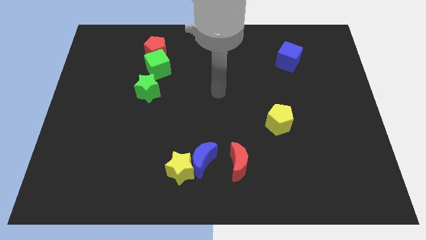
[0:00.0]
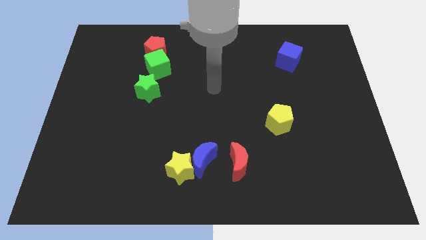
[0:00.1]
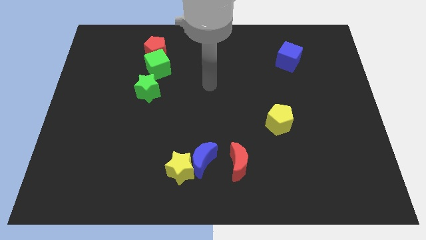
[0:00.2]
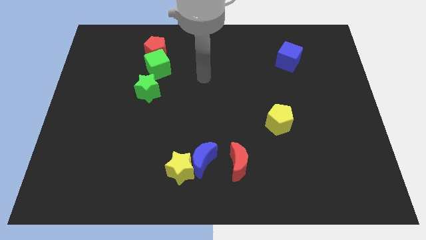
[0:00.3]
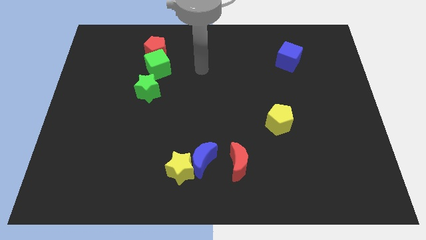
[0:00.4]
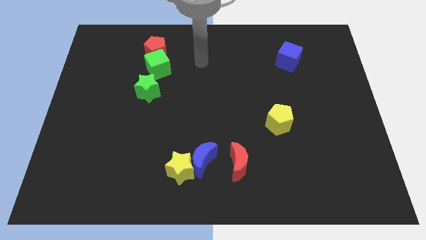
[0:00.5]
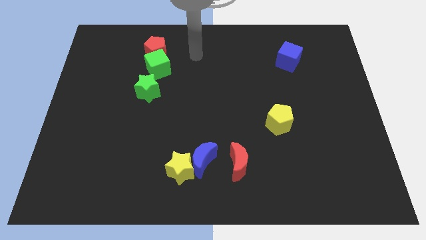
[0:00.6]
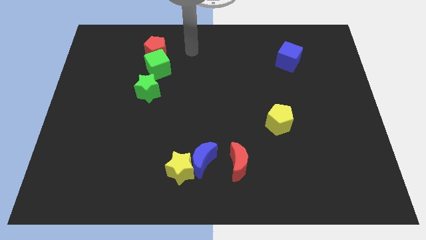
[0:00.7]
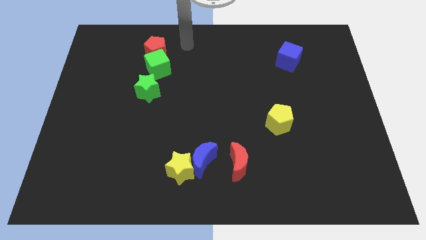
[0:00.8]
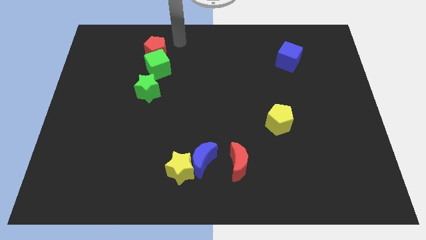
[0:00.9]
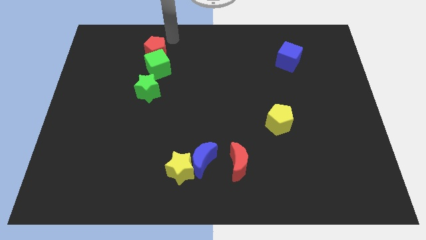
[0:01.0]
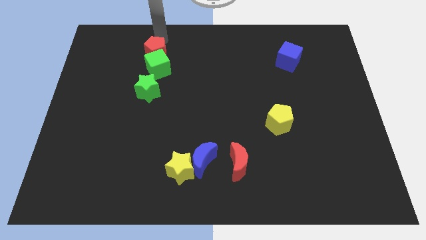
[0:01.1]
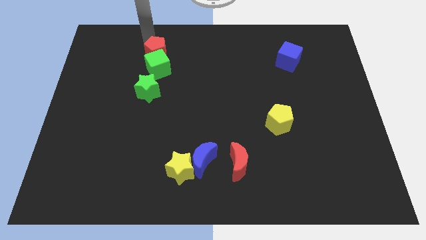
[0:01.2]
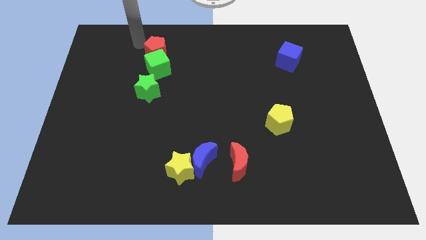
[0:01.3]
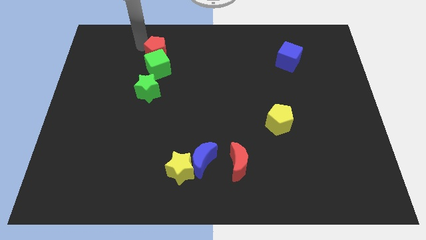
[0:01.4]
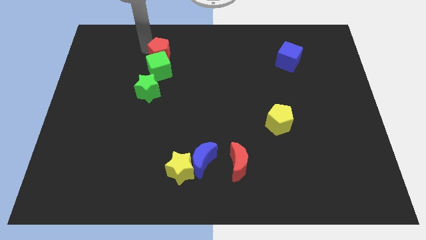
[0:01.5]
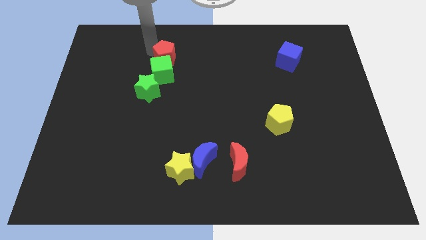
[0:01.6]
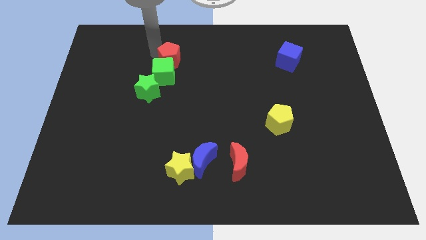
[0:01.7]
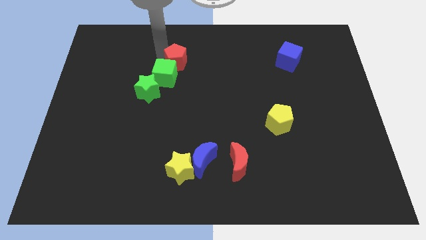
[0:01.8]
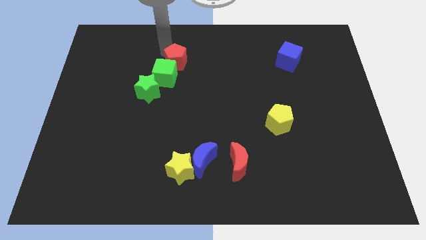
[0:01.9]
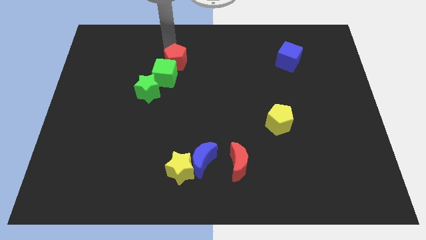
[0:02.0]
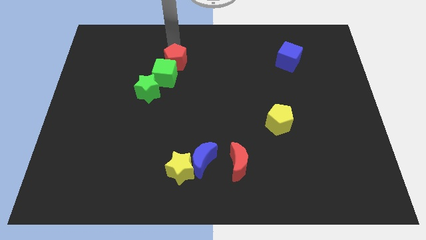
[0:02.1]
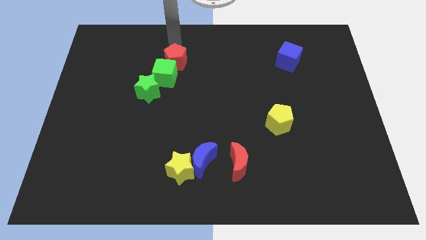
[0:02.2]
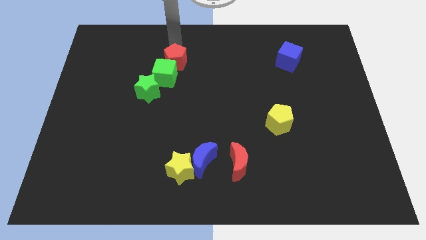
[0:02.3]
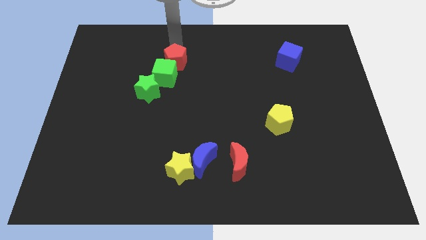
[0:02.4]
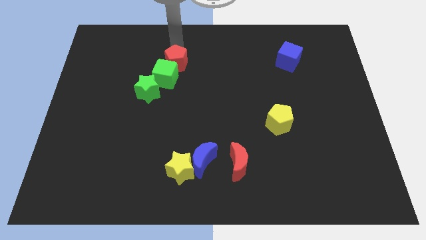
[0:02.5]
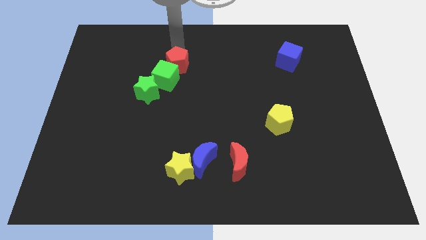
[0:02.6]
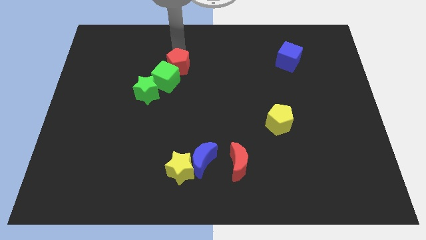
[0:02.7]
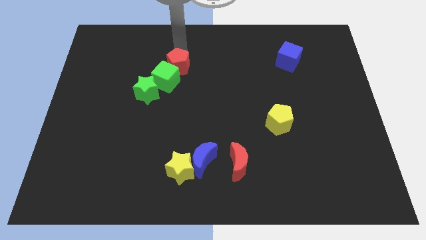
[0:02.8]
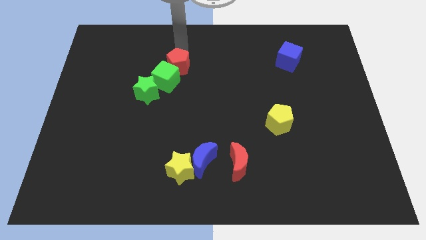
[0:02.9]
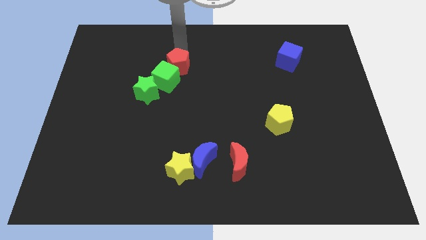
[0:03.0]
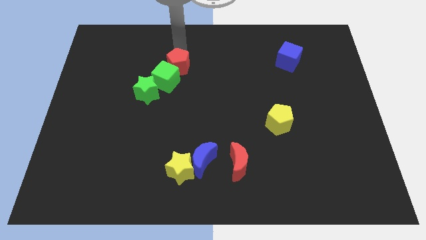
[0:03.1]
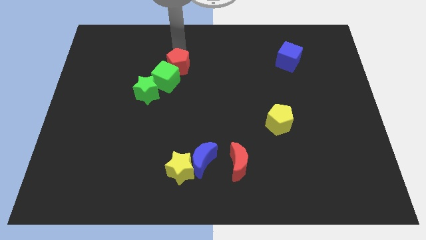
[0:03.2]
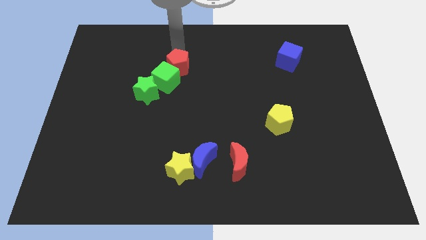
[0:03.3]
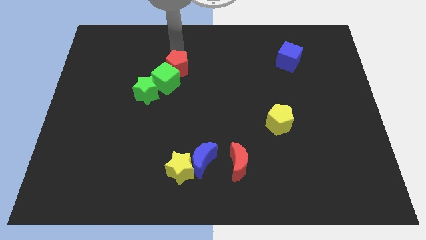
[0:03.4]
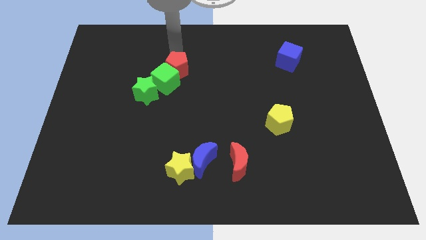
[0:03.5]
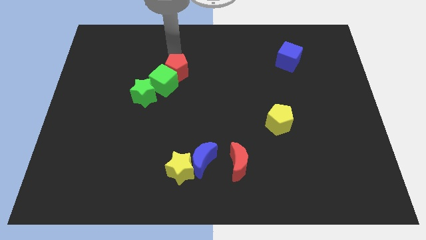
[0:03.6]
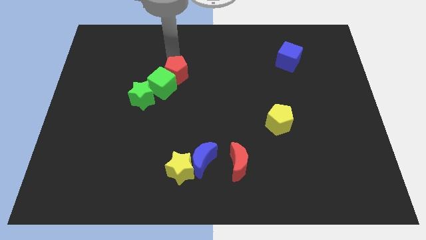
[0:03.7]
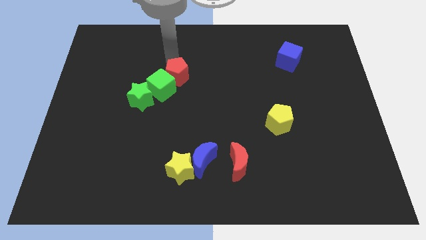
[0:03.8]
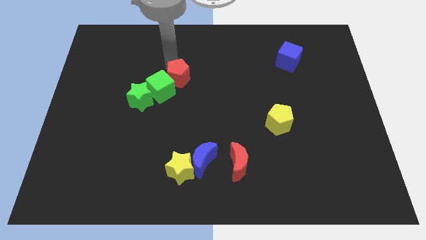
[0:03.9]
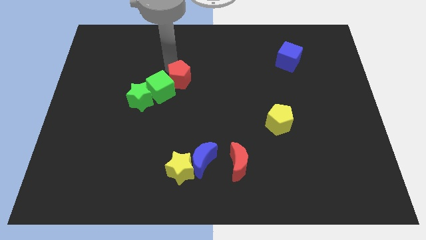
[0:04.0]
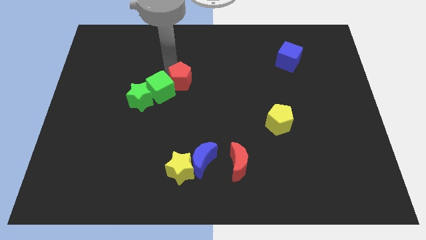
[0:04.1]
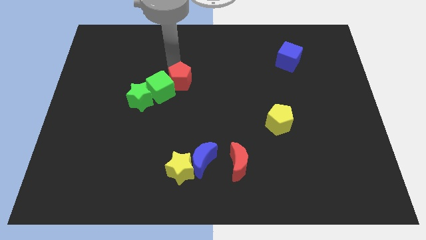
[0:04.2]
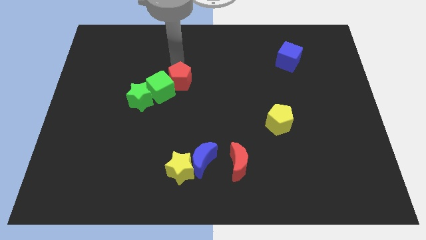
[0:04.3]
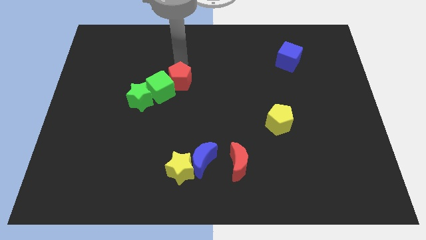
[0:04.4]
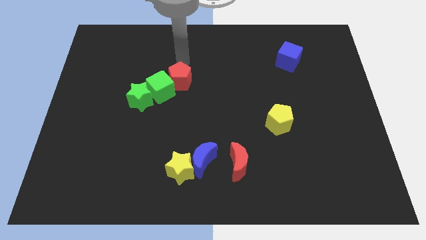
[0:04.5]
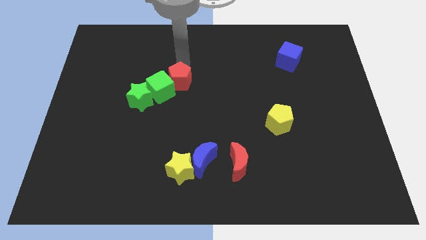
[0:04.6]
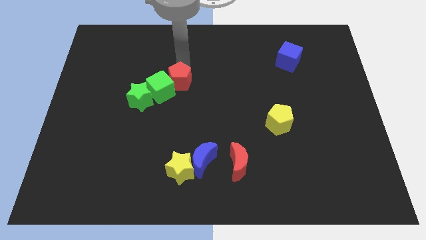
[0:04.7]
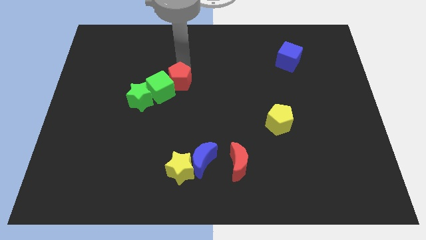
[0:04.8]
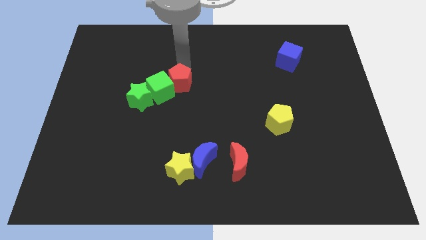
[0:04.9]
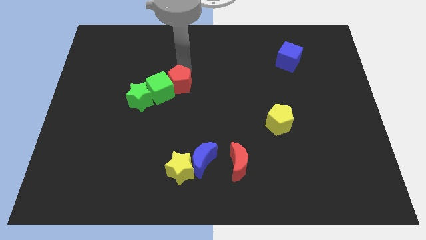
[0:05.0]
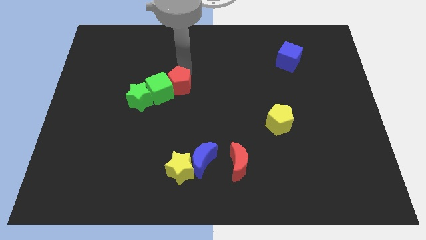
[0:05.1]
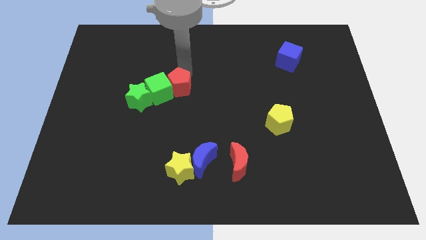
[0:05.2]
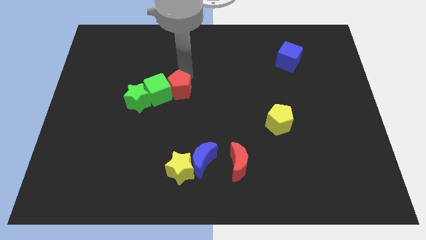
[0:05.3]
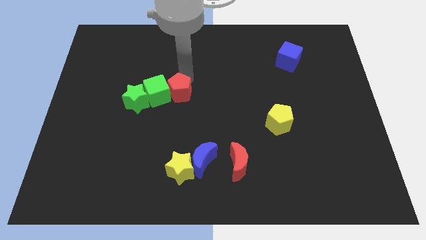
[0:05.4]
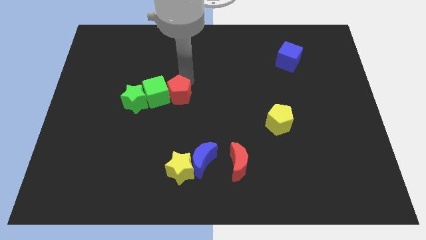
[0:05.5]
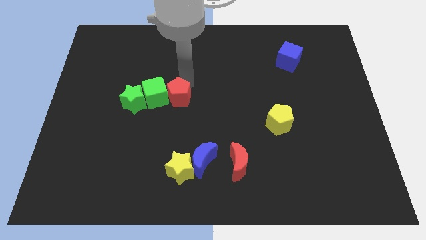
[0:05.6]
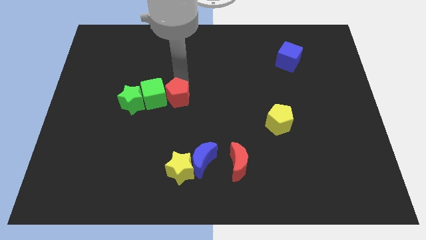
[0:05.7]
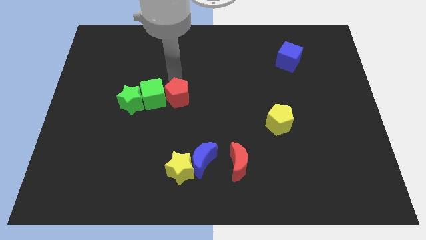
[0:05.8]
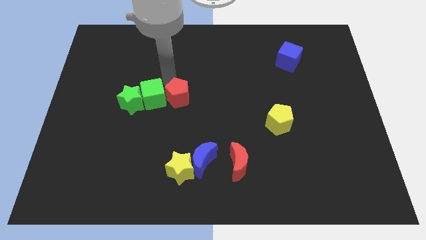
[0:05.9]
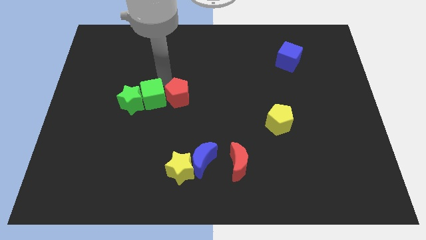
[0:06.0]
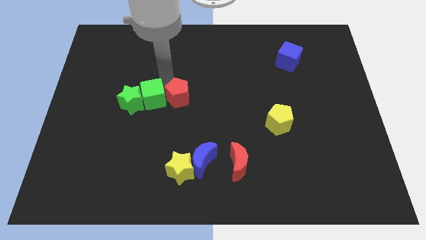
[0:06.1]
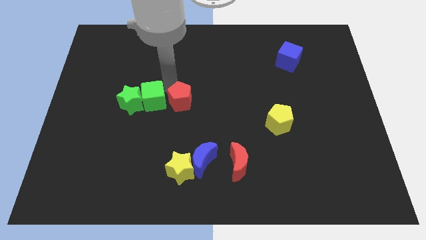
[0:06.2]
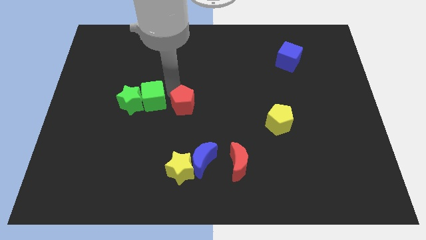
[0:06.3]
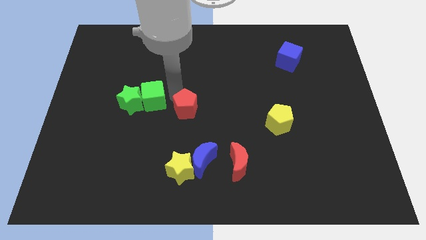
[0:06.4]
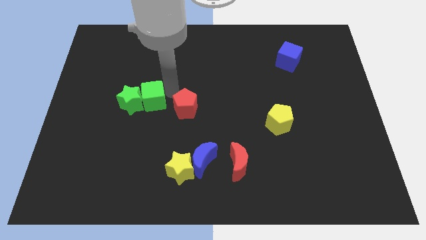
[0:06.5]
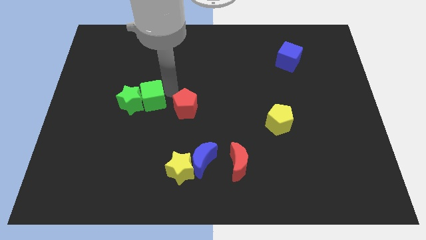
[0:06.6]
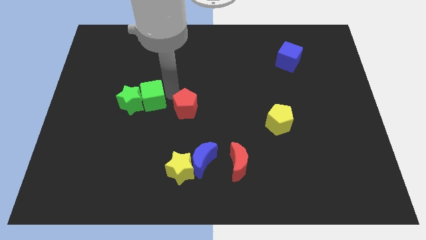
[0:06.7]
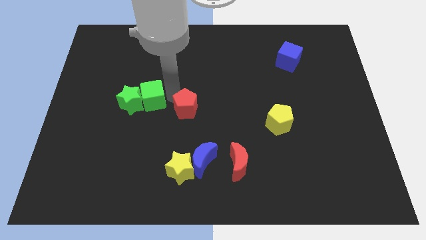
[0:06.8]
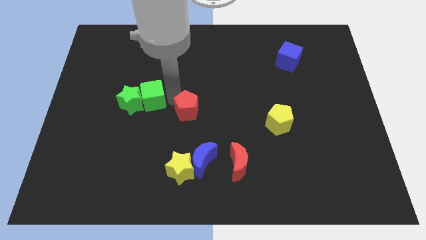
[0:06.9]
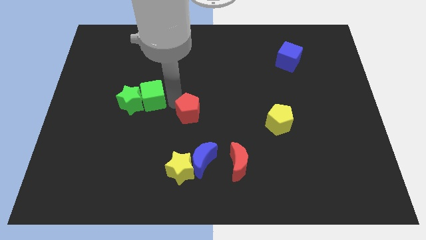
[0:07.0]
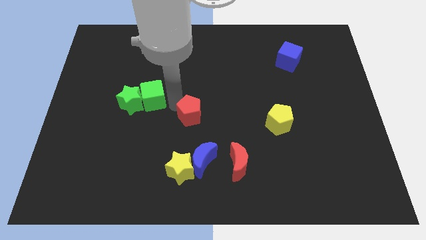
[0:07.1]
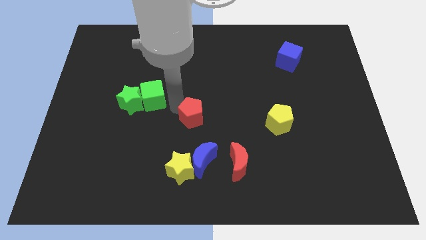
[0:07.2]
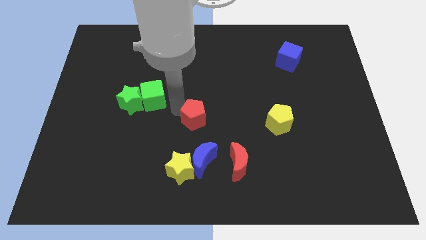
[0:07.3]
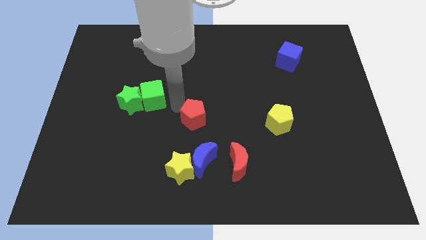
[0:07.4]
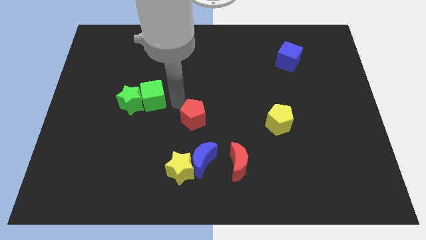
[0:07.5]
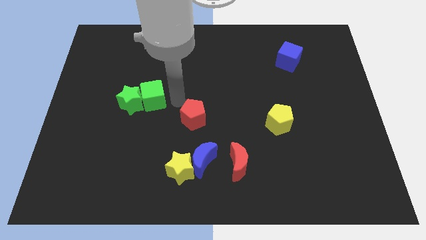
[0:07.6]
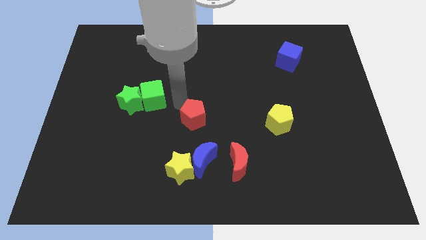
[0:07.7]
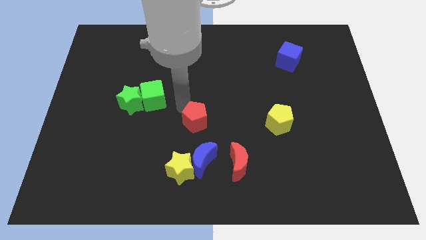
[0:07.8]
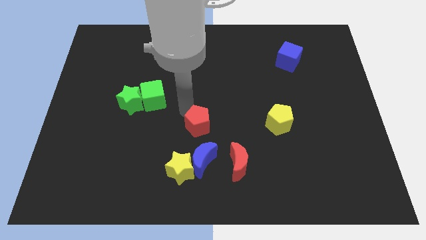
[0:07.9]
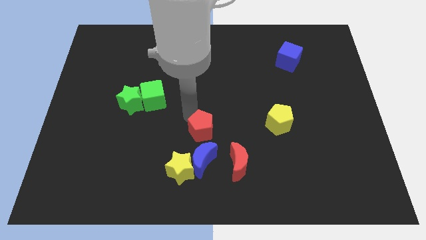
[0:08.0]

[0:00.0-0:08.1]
slide the red pentagon to the top left side of the red moon
